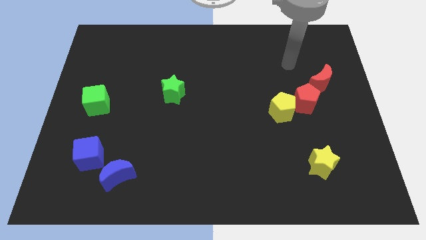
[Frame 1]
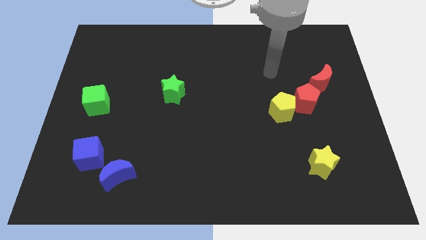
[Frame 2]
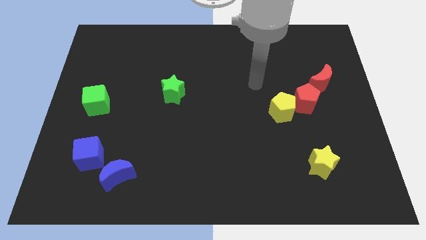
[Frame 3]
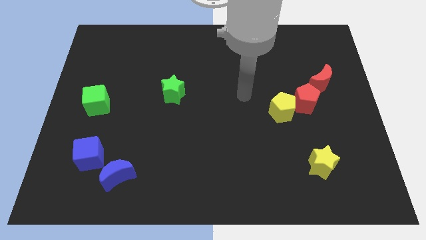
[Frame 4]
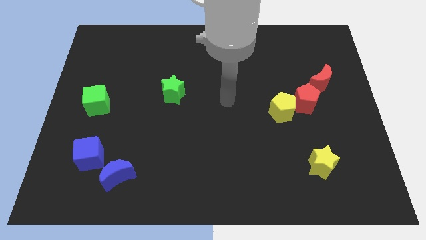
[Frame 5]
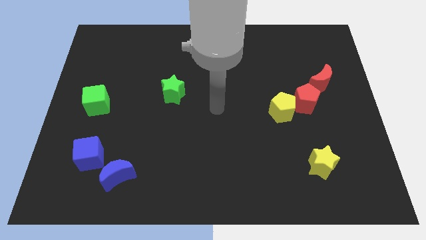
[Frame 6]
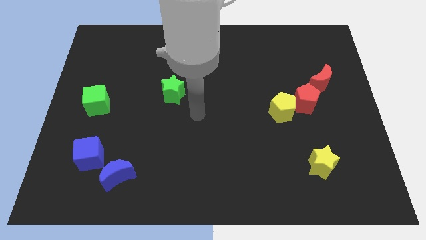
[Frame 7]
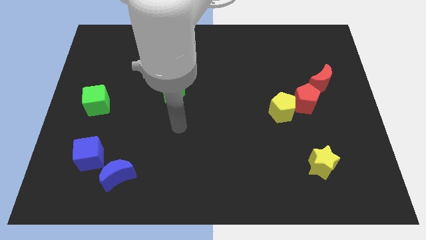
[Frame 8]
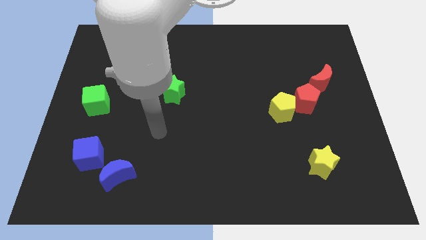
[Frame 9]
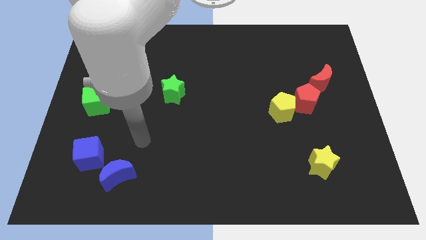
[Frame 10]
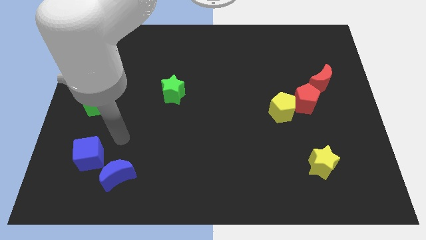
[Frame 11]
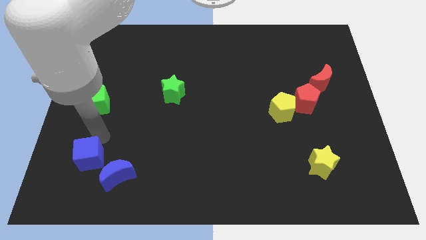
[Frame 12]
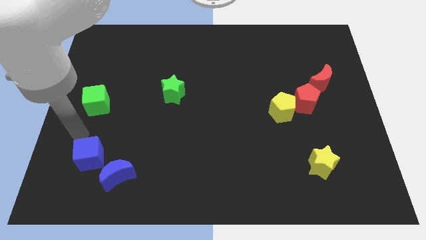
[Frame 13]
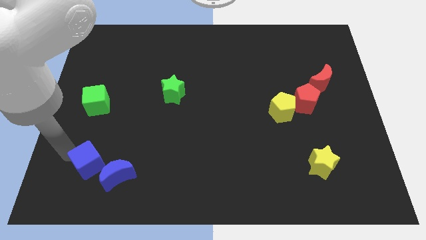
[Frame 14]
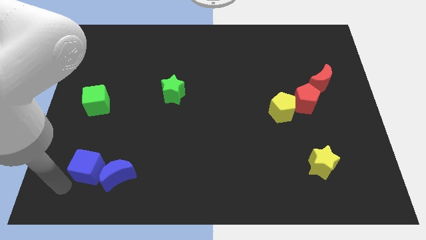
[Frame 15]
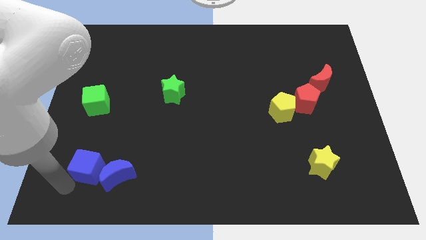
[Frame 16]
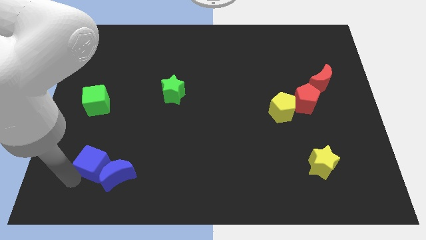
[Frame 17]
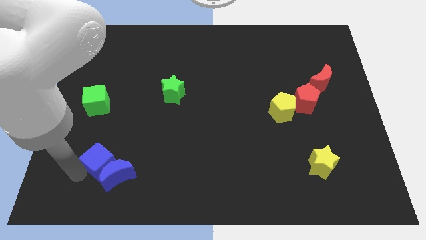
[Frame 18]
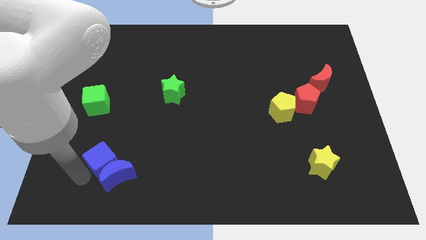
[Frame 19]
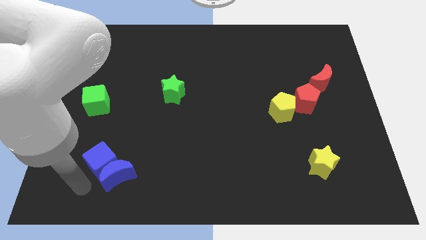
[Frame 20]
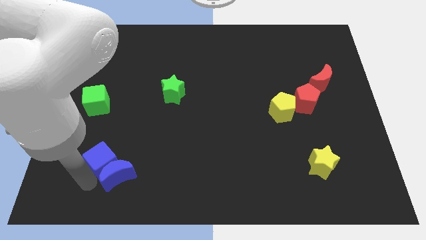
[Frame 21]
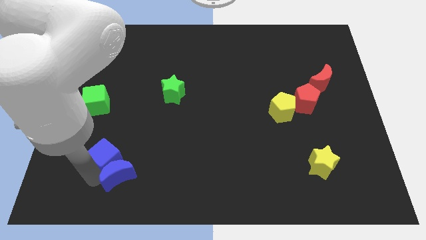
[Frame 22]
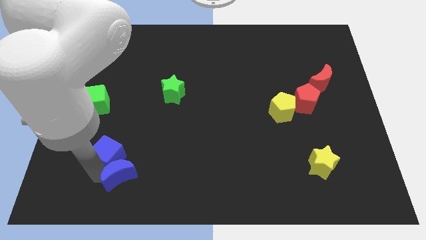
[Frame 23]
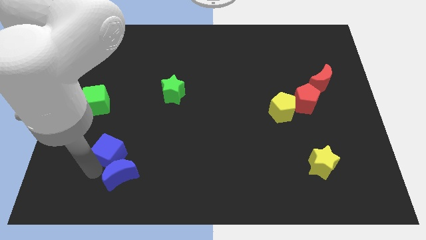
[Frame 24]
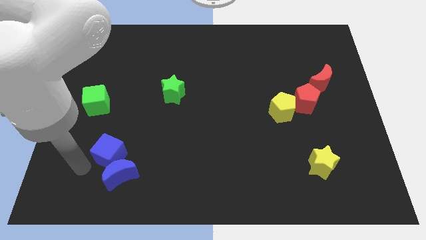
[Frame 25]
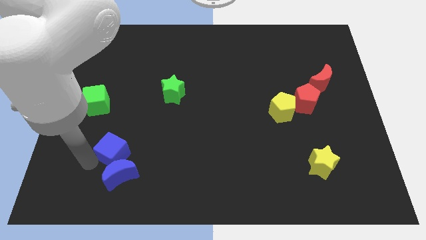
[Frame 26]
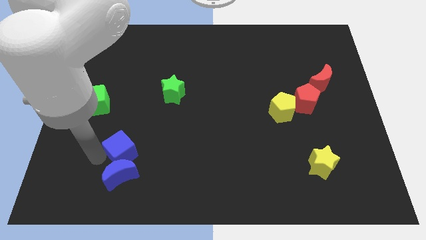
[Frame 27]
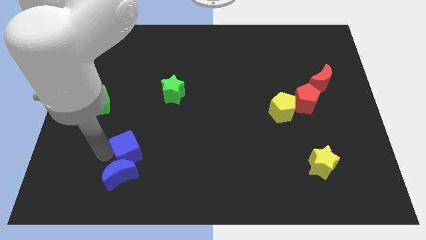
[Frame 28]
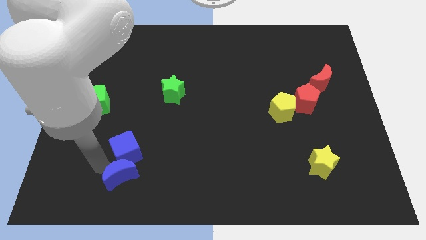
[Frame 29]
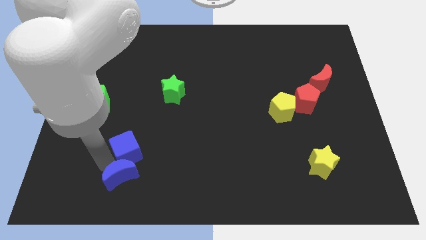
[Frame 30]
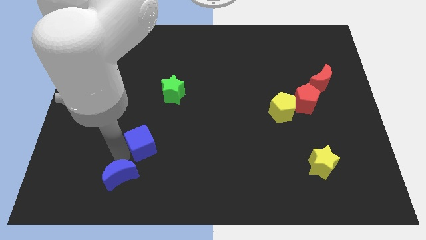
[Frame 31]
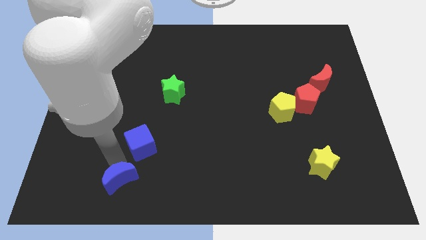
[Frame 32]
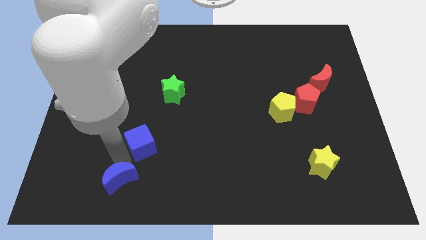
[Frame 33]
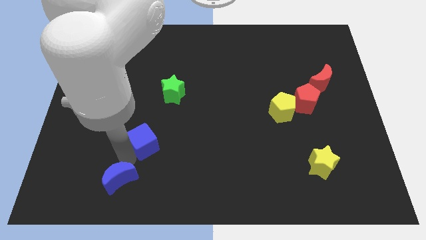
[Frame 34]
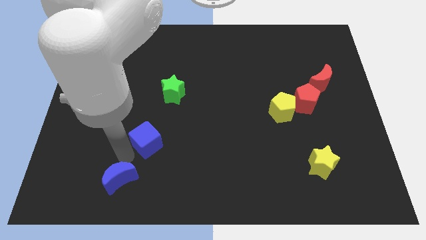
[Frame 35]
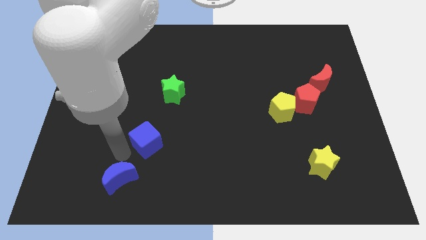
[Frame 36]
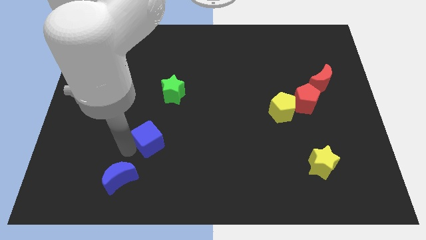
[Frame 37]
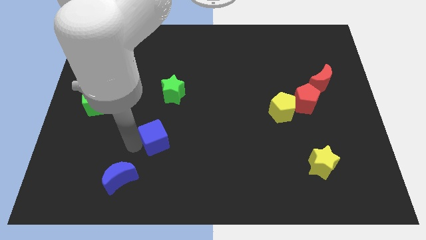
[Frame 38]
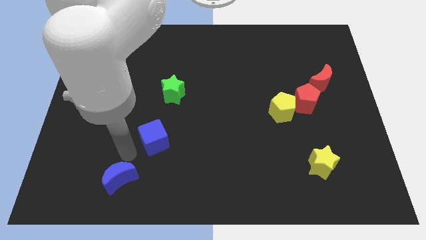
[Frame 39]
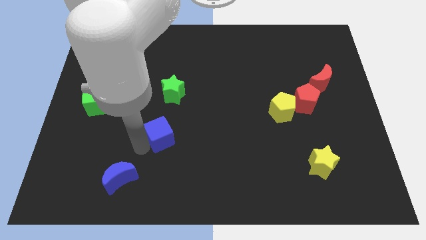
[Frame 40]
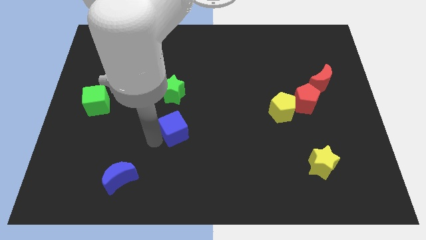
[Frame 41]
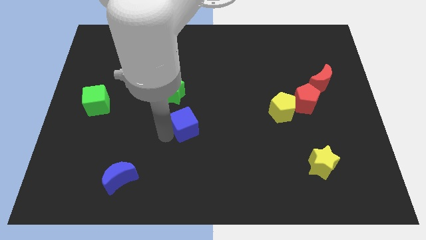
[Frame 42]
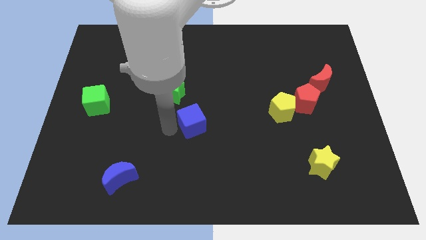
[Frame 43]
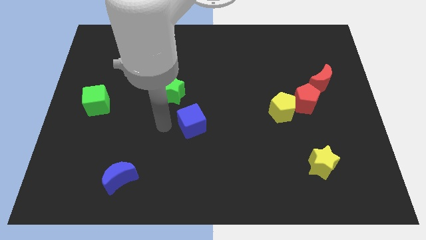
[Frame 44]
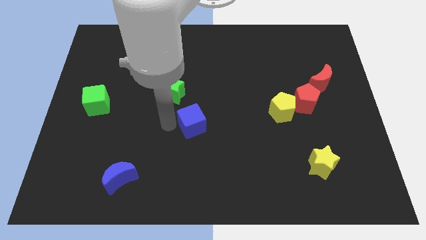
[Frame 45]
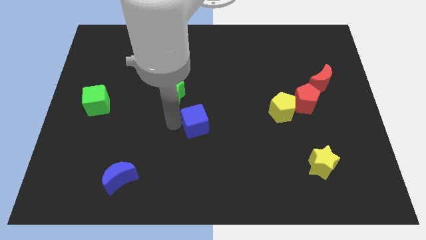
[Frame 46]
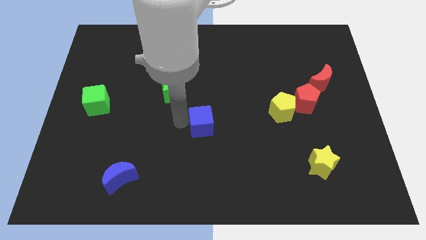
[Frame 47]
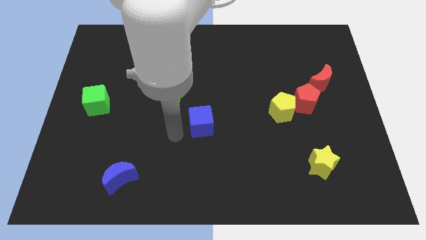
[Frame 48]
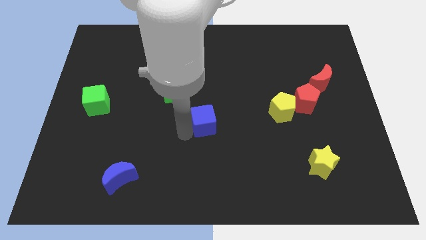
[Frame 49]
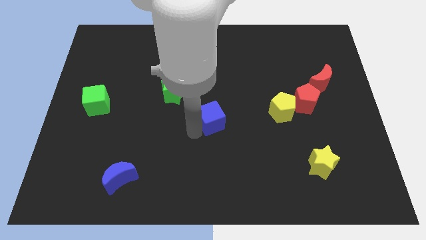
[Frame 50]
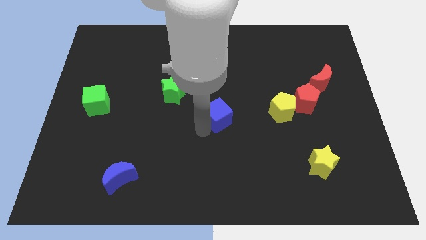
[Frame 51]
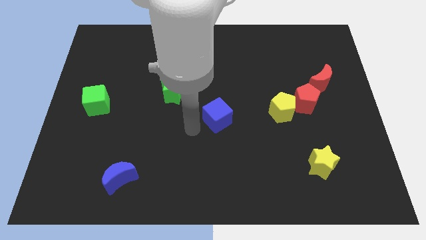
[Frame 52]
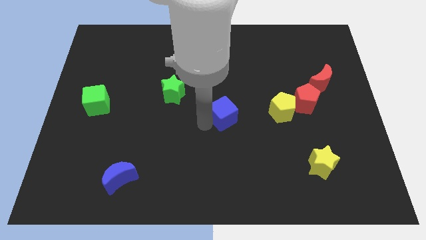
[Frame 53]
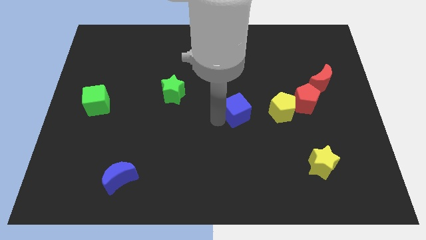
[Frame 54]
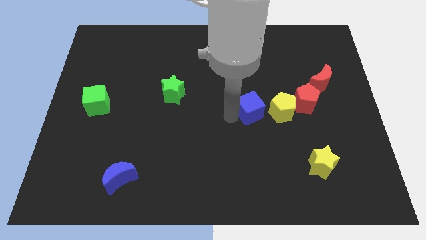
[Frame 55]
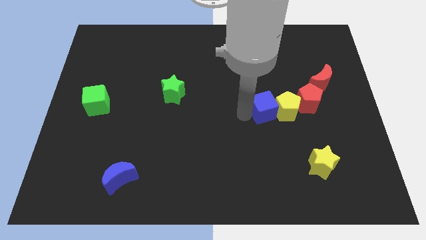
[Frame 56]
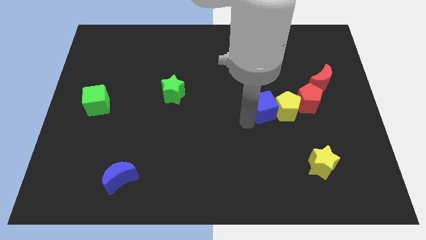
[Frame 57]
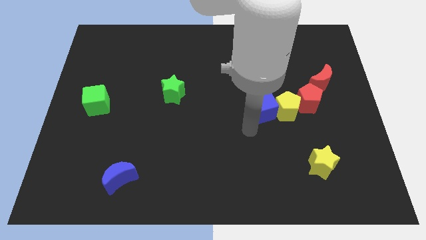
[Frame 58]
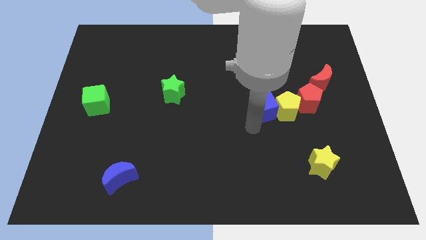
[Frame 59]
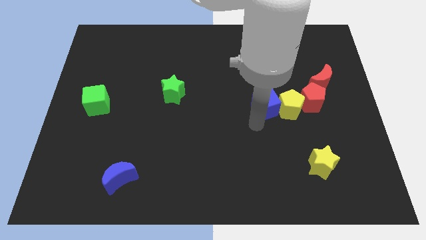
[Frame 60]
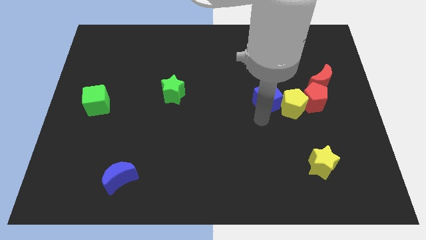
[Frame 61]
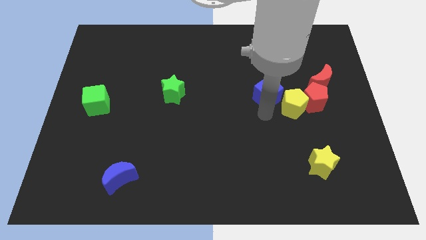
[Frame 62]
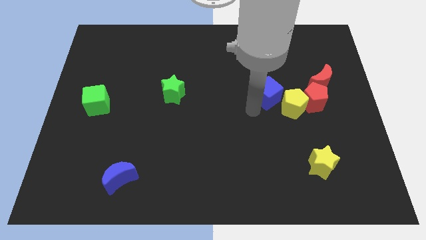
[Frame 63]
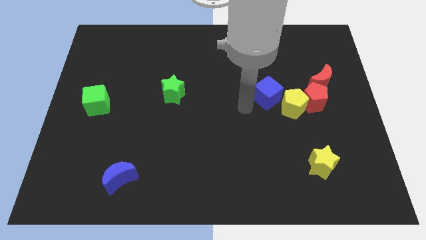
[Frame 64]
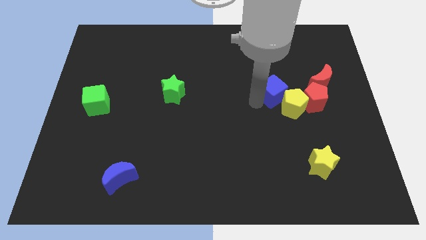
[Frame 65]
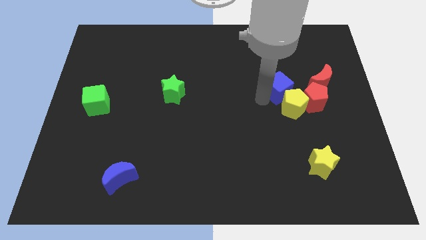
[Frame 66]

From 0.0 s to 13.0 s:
push the blue cube to the top left of the red pentagon

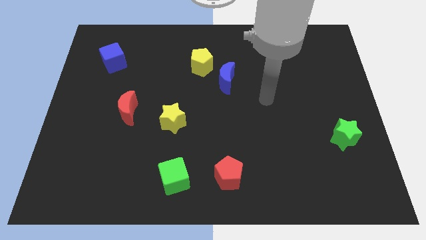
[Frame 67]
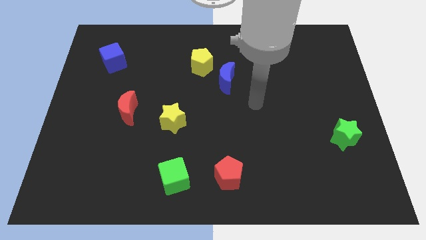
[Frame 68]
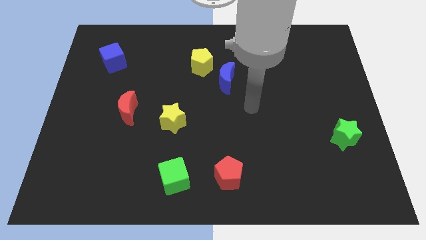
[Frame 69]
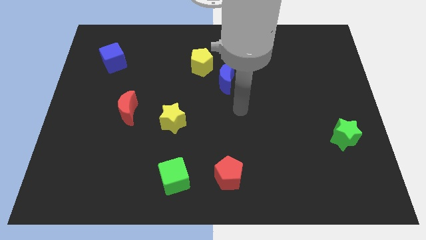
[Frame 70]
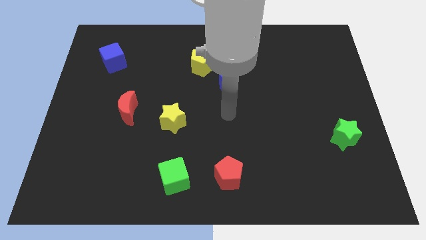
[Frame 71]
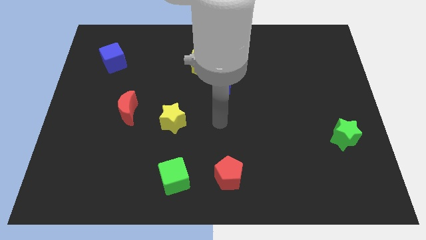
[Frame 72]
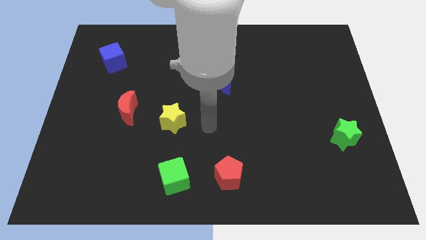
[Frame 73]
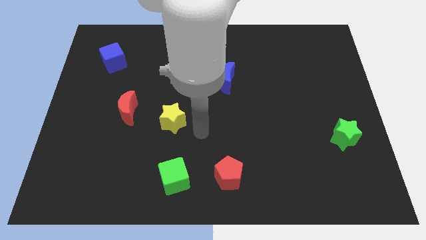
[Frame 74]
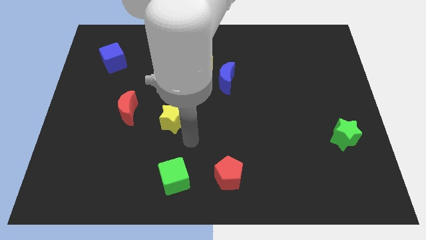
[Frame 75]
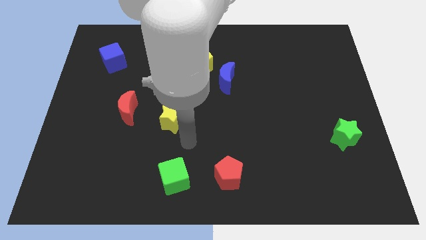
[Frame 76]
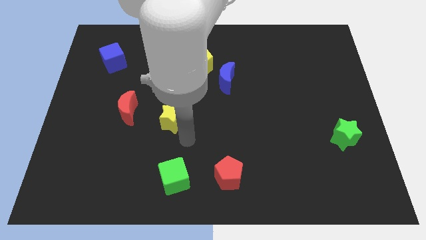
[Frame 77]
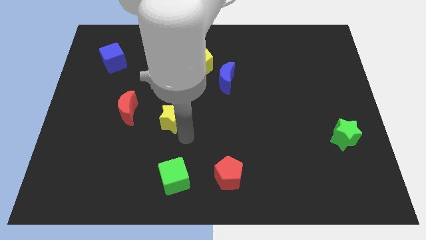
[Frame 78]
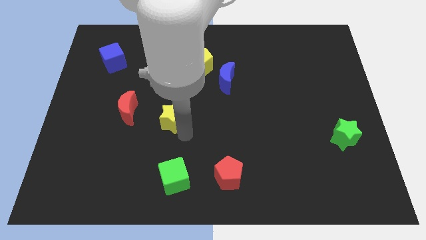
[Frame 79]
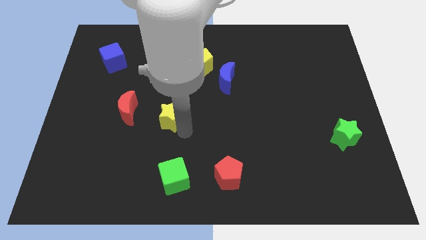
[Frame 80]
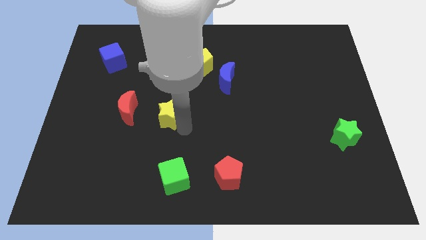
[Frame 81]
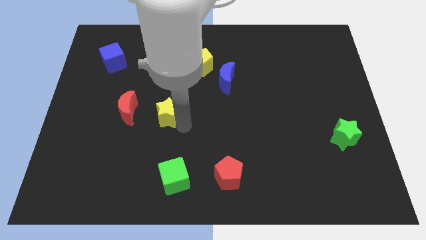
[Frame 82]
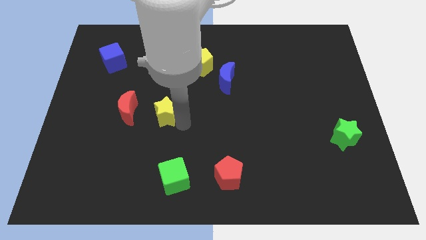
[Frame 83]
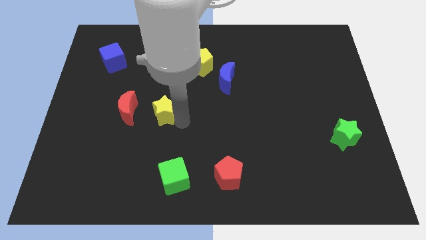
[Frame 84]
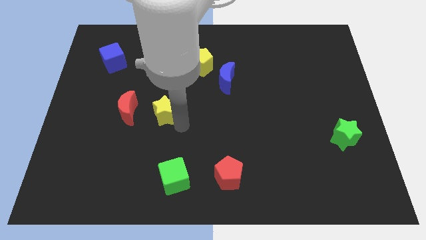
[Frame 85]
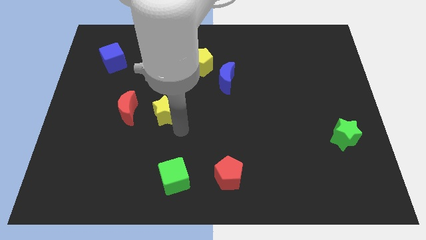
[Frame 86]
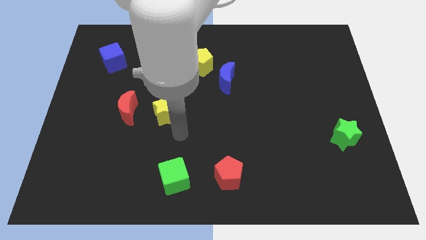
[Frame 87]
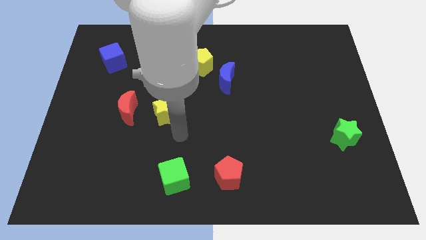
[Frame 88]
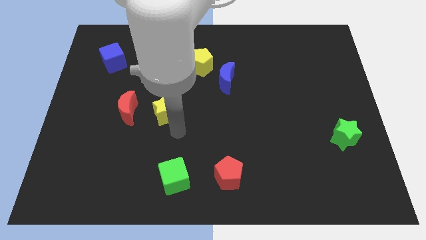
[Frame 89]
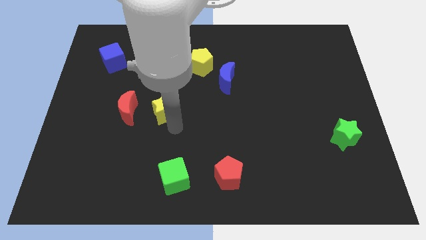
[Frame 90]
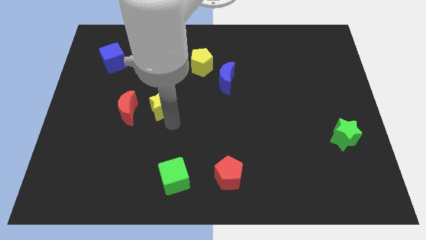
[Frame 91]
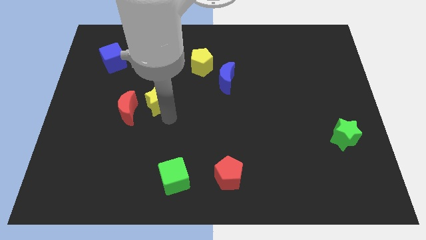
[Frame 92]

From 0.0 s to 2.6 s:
slide the yellow star to the top right side of the red moon
